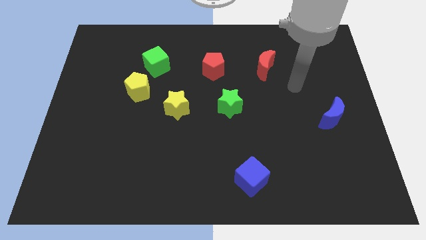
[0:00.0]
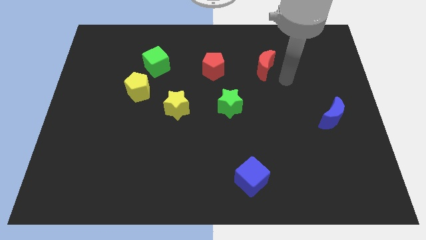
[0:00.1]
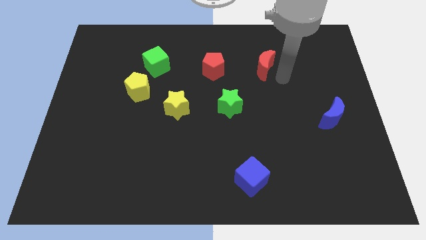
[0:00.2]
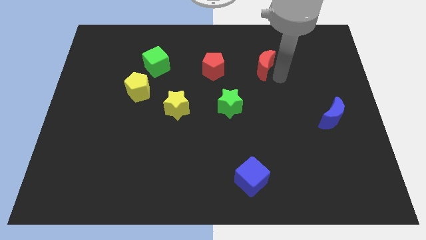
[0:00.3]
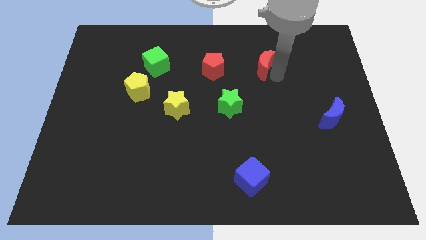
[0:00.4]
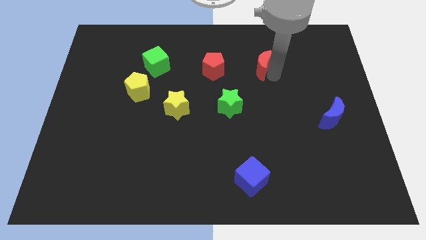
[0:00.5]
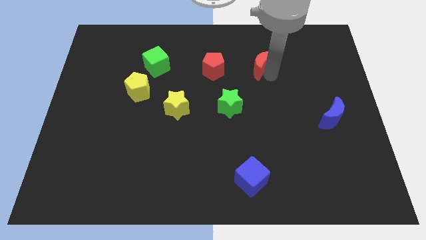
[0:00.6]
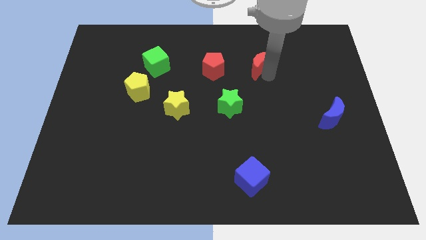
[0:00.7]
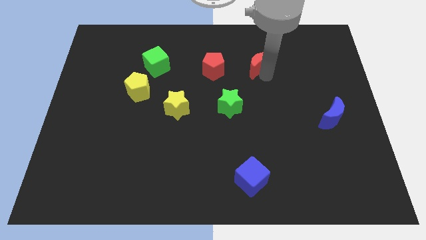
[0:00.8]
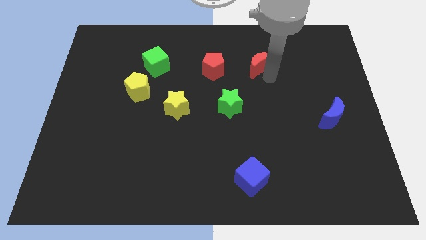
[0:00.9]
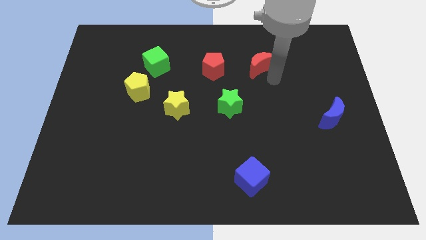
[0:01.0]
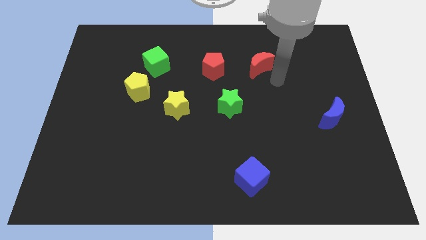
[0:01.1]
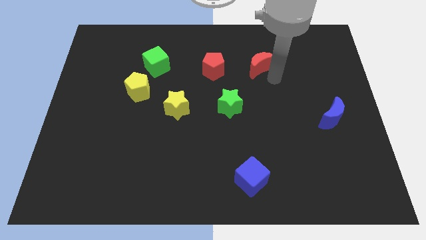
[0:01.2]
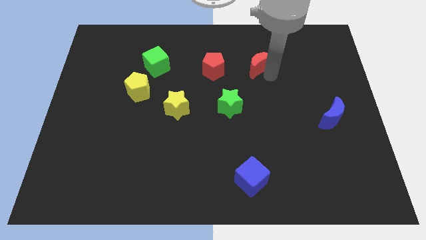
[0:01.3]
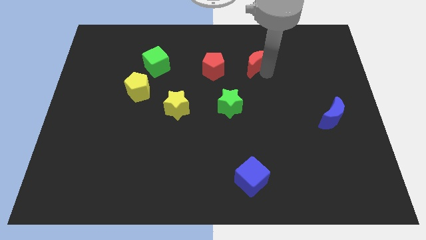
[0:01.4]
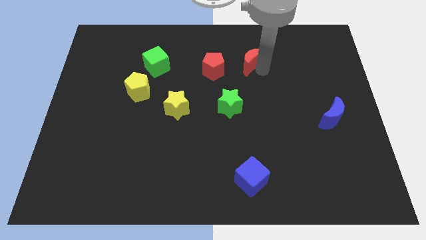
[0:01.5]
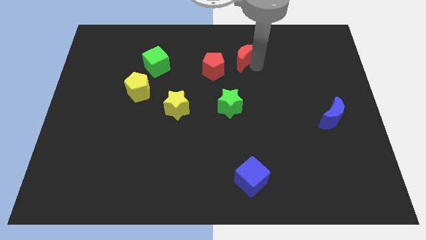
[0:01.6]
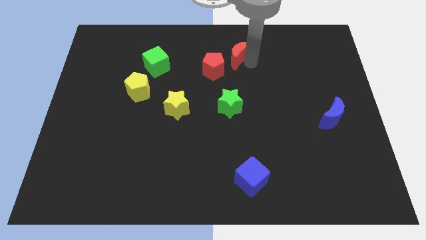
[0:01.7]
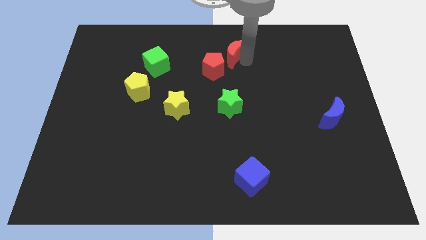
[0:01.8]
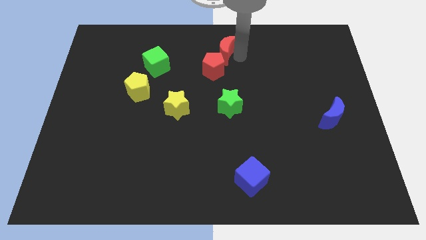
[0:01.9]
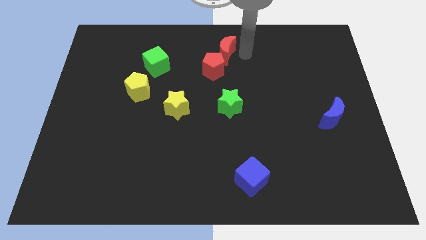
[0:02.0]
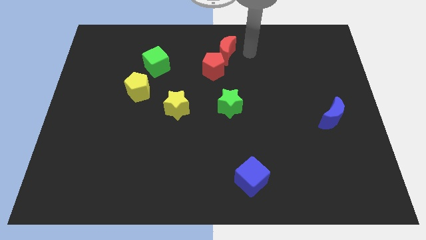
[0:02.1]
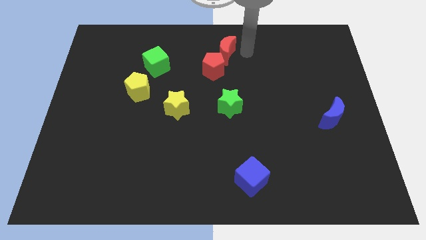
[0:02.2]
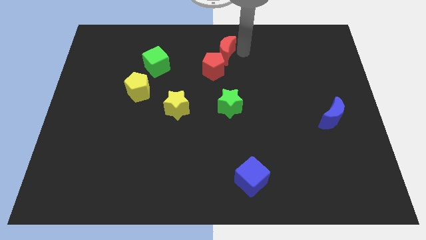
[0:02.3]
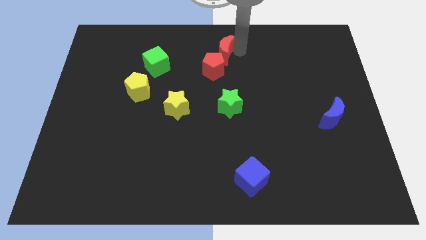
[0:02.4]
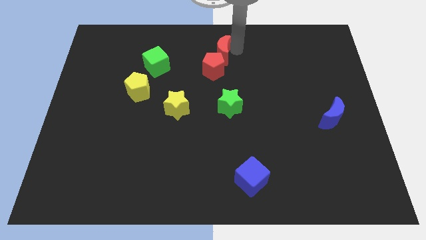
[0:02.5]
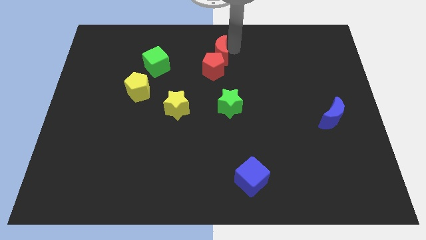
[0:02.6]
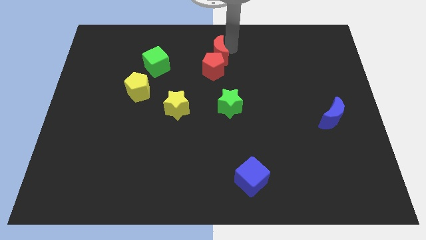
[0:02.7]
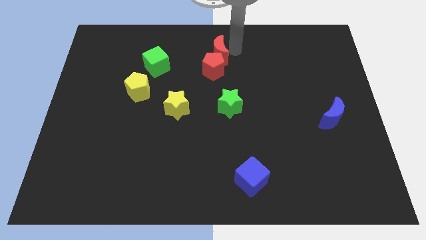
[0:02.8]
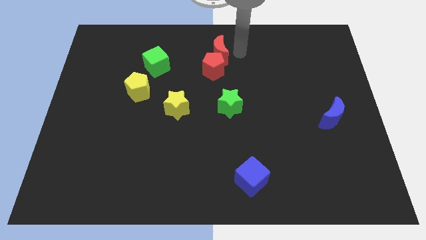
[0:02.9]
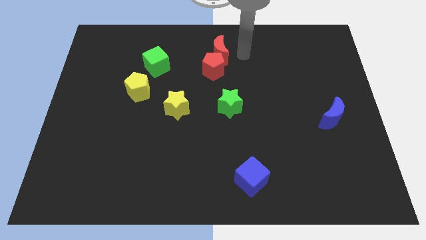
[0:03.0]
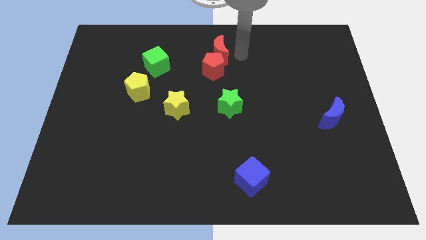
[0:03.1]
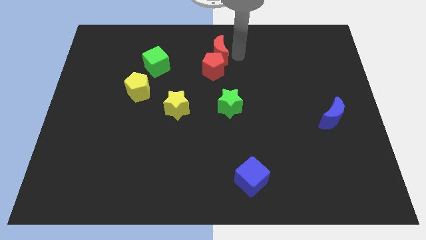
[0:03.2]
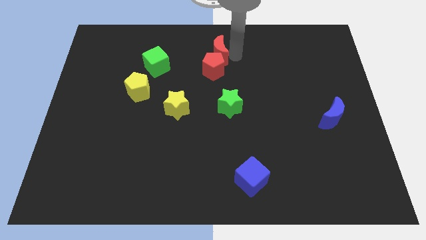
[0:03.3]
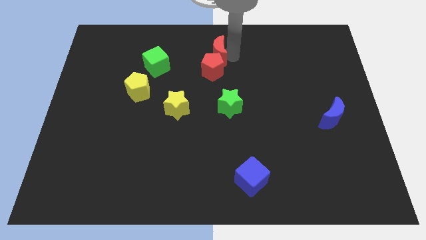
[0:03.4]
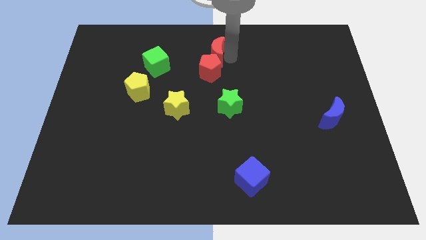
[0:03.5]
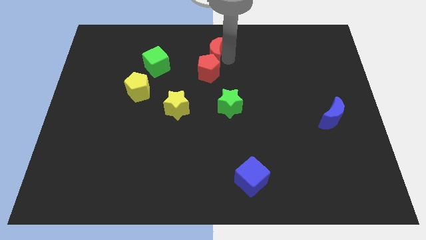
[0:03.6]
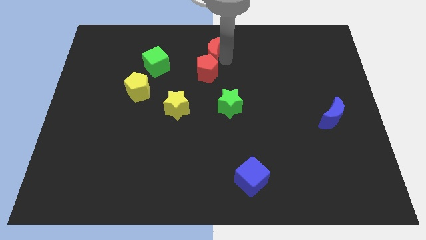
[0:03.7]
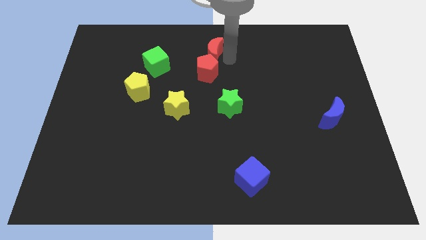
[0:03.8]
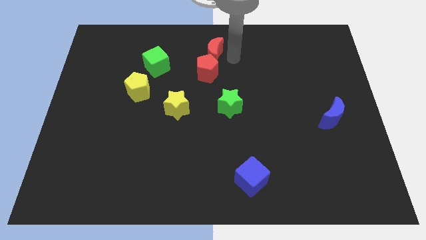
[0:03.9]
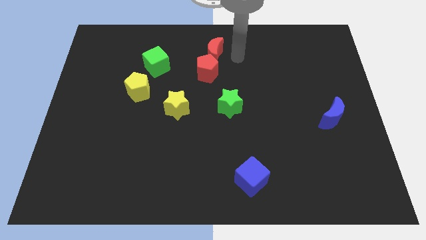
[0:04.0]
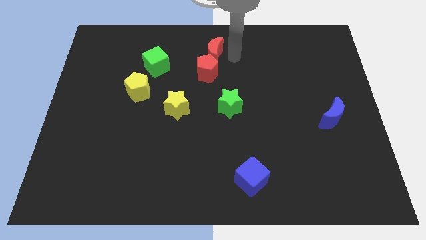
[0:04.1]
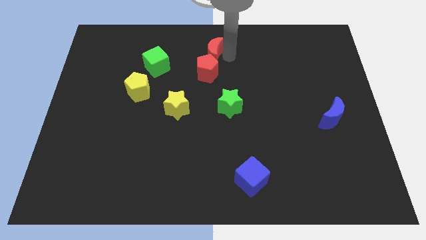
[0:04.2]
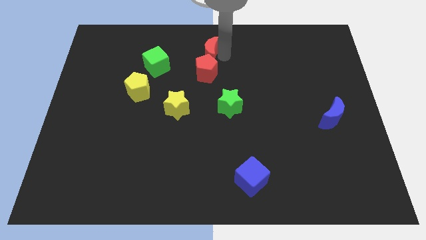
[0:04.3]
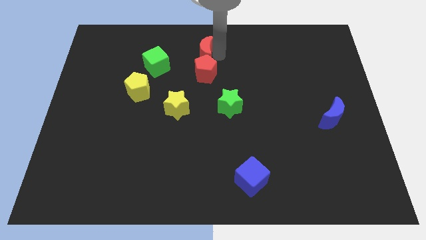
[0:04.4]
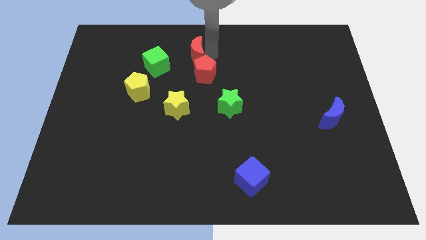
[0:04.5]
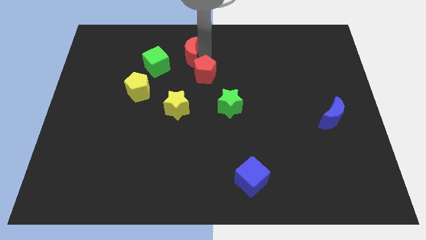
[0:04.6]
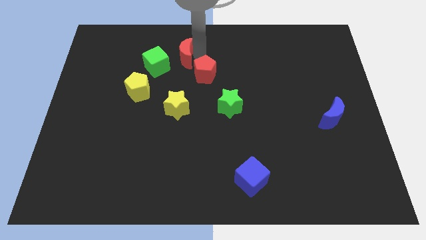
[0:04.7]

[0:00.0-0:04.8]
slide the red moon left

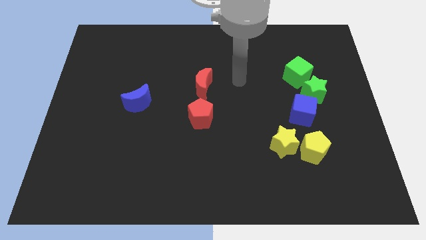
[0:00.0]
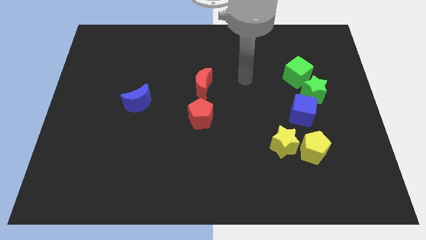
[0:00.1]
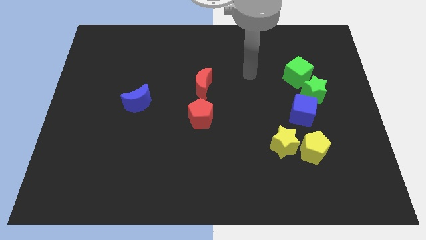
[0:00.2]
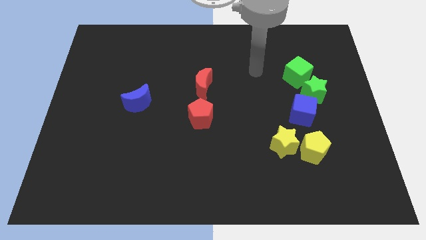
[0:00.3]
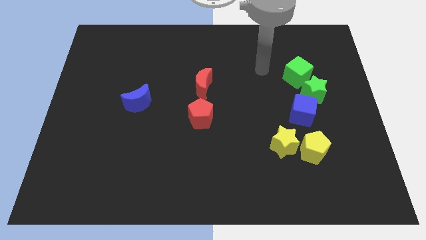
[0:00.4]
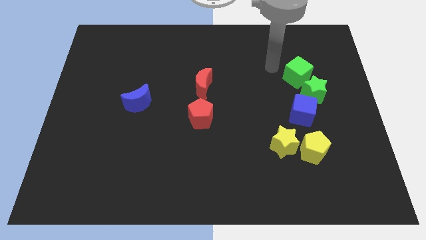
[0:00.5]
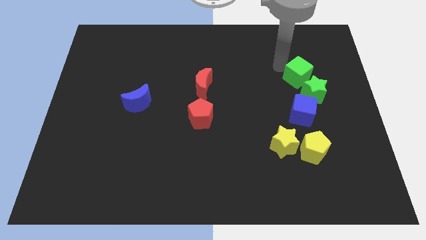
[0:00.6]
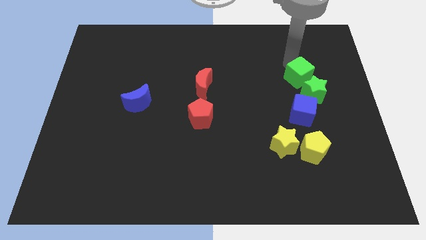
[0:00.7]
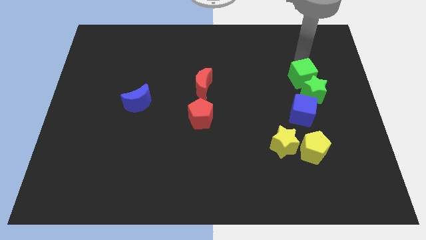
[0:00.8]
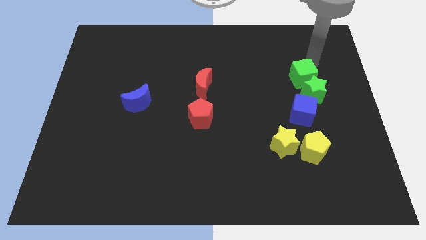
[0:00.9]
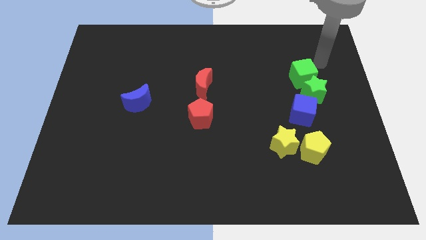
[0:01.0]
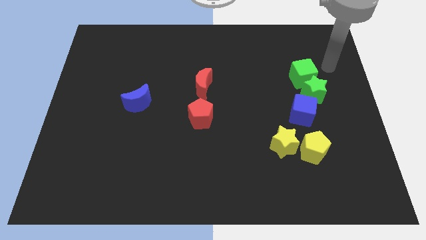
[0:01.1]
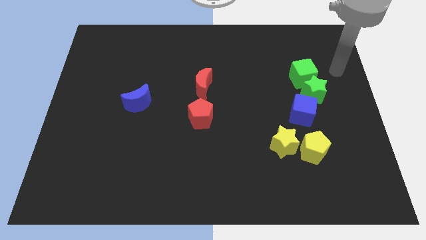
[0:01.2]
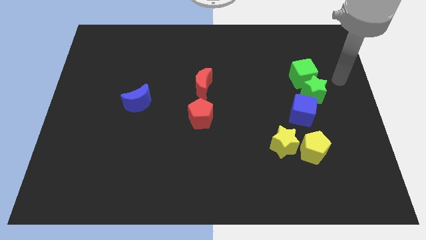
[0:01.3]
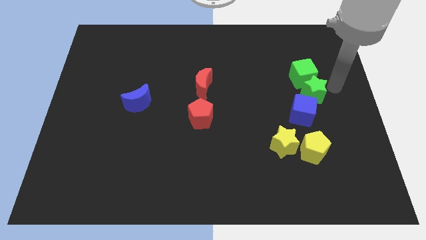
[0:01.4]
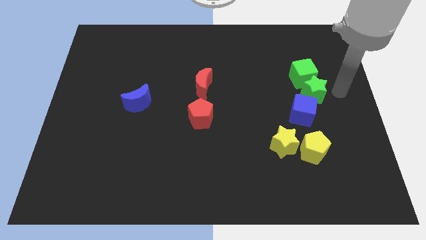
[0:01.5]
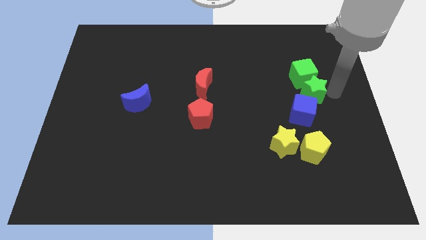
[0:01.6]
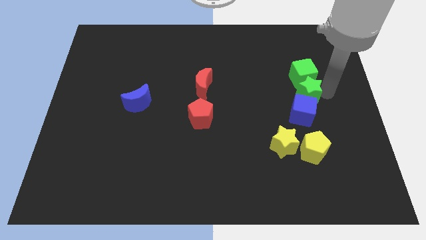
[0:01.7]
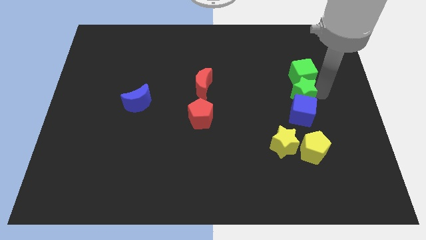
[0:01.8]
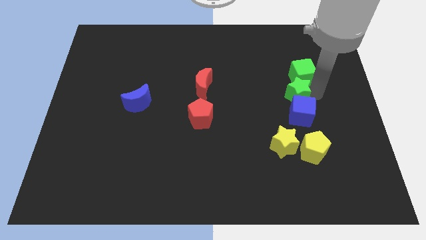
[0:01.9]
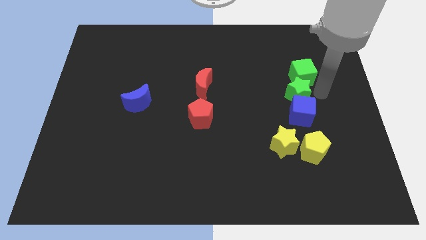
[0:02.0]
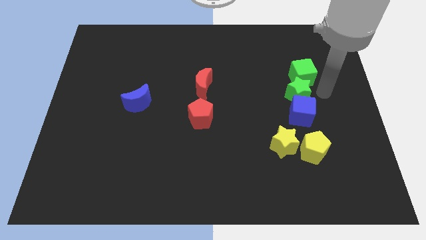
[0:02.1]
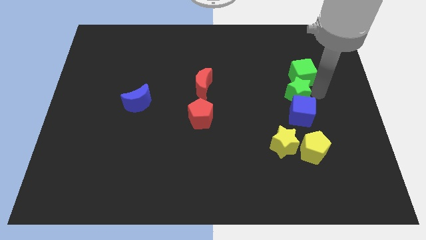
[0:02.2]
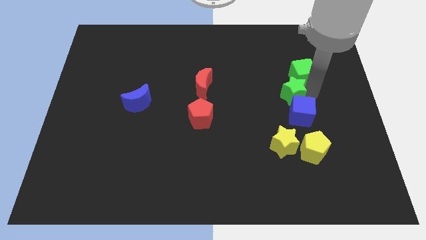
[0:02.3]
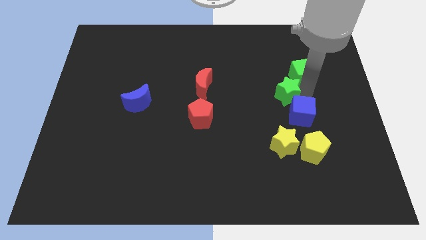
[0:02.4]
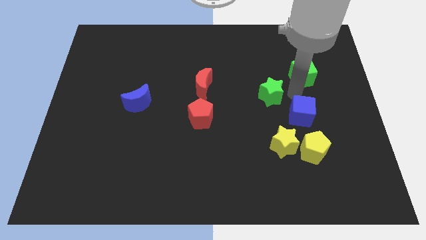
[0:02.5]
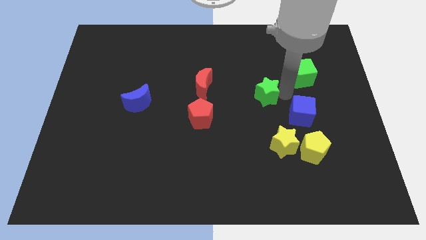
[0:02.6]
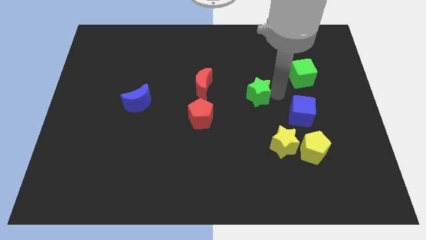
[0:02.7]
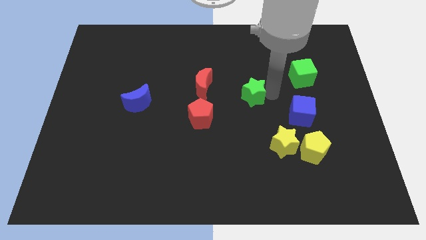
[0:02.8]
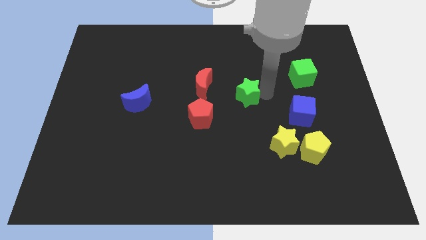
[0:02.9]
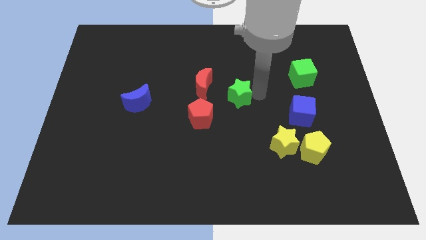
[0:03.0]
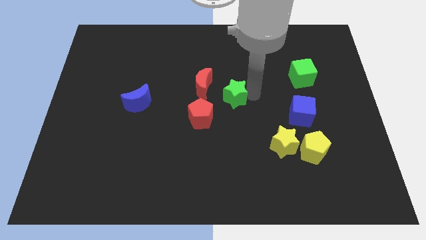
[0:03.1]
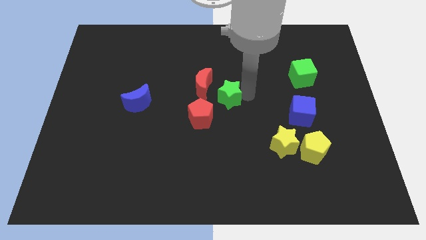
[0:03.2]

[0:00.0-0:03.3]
move the green star left
